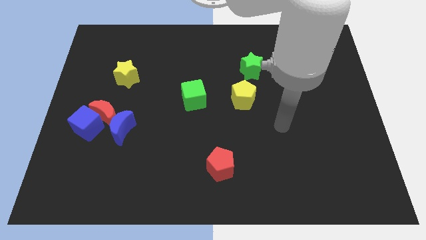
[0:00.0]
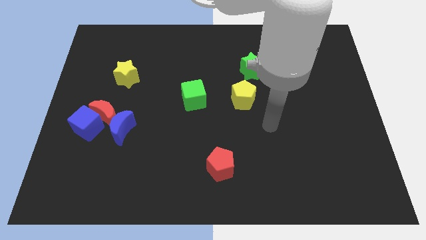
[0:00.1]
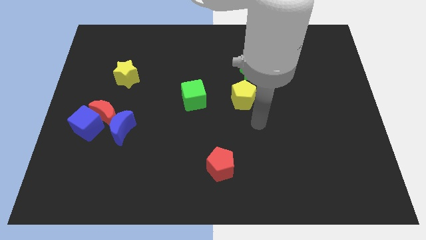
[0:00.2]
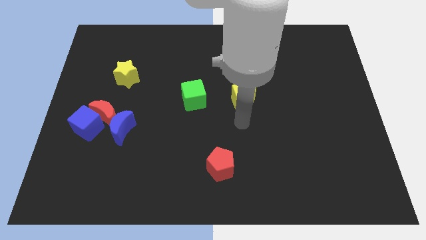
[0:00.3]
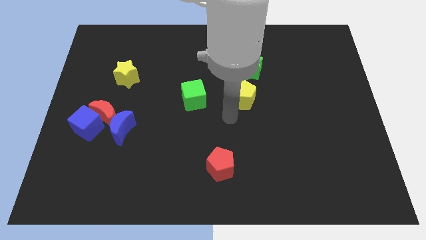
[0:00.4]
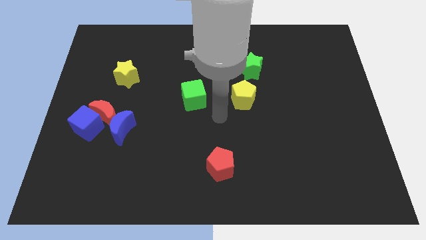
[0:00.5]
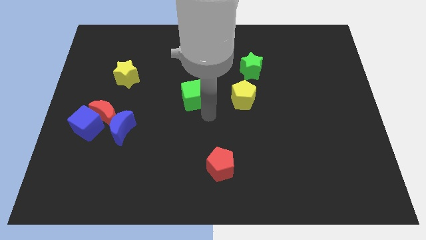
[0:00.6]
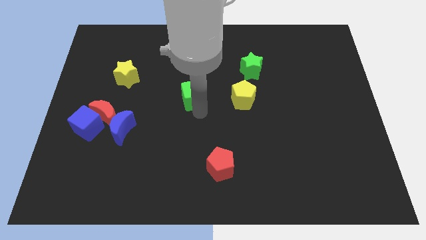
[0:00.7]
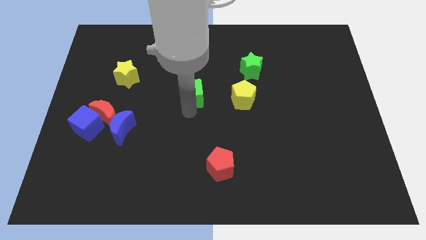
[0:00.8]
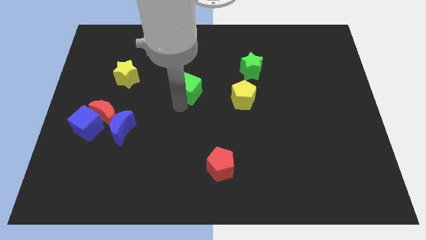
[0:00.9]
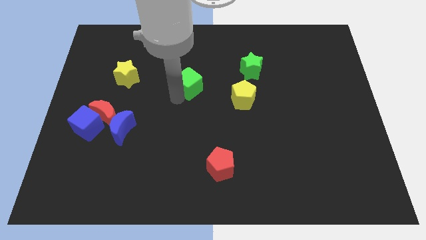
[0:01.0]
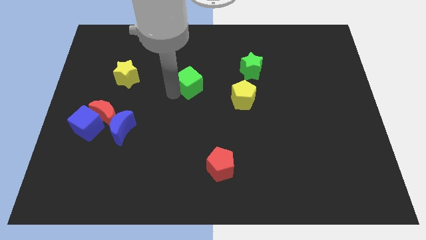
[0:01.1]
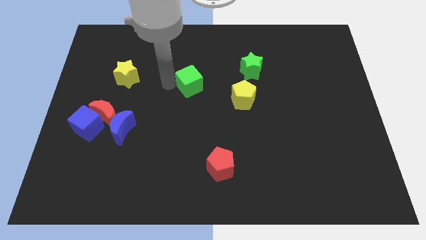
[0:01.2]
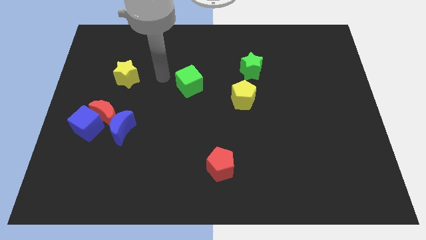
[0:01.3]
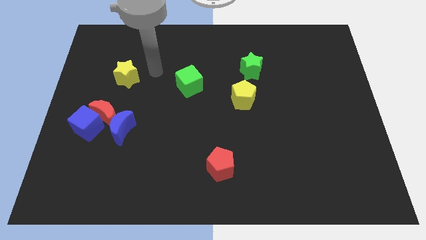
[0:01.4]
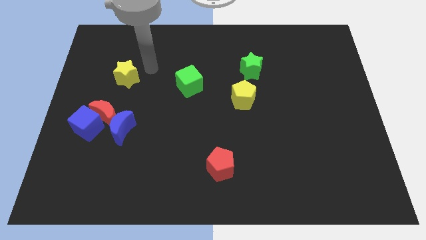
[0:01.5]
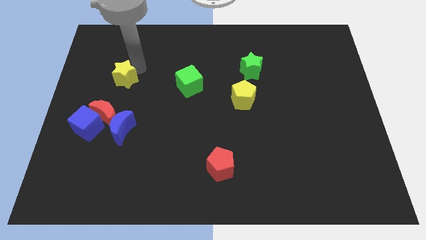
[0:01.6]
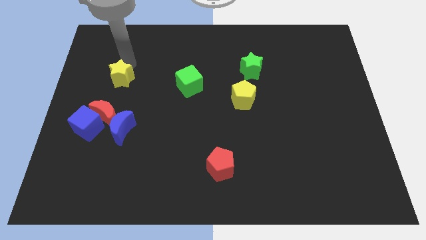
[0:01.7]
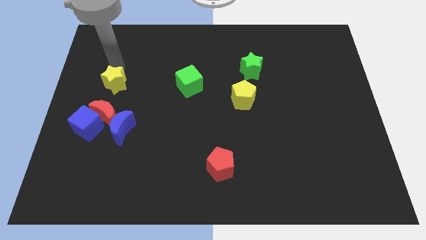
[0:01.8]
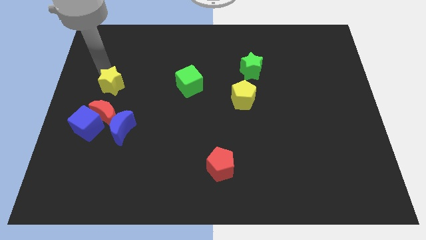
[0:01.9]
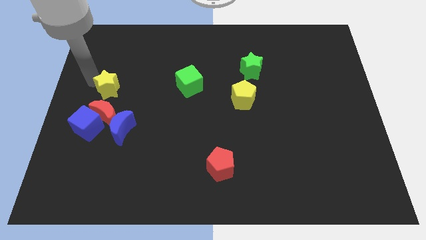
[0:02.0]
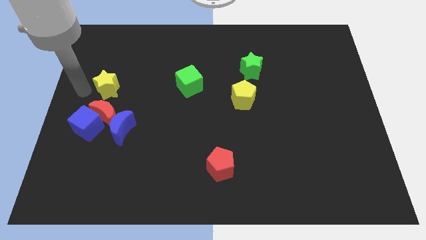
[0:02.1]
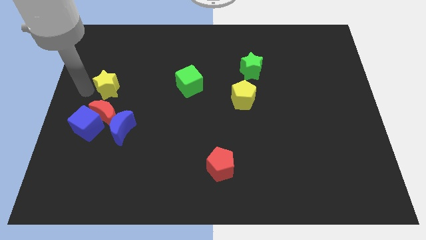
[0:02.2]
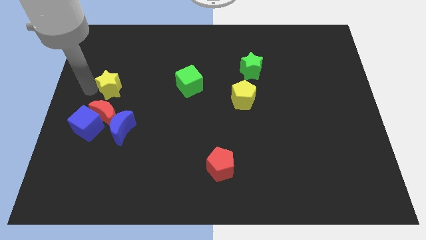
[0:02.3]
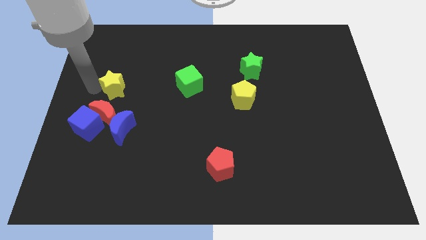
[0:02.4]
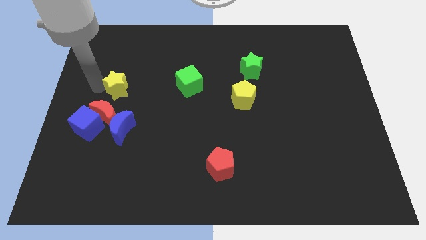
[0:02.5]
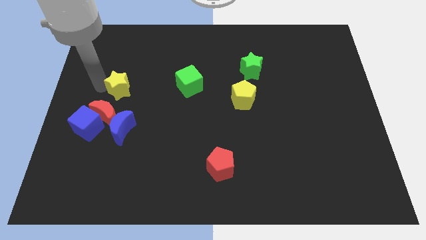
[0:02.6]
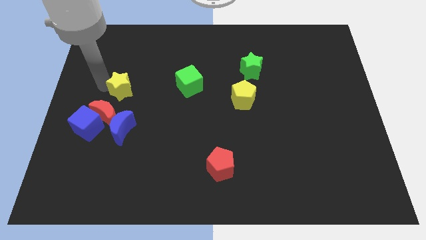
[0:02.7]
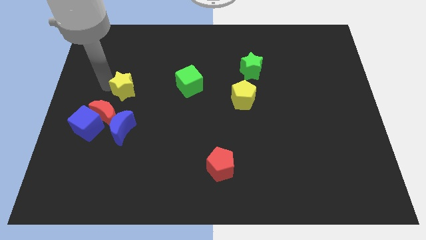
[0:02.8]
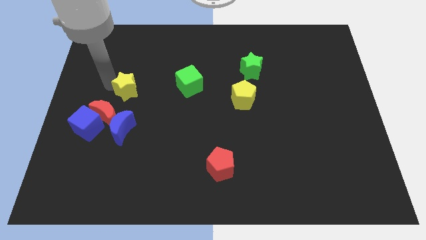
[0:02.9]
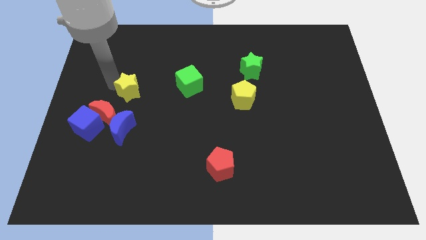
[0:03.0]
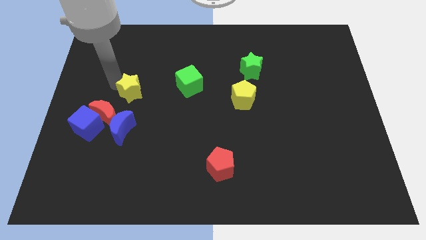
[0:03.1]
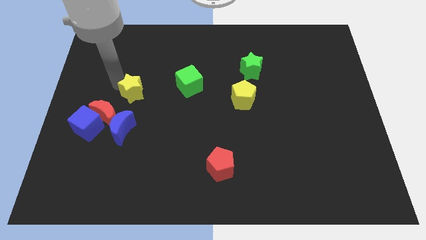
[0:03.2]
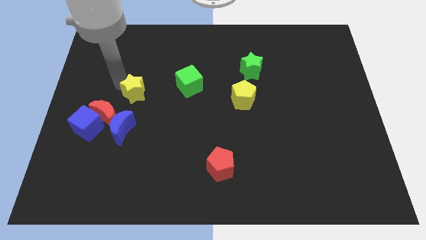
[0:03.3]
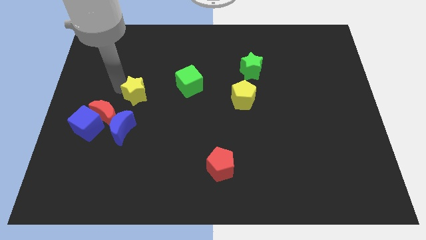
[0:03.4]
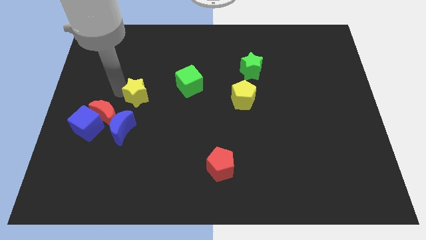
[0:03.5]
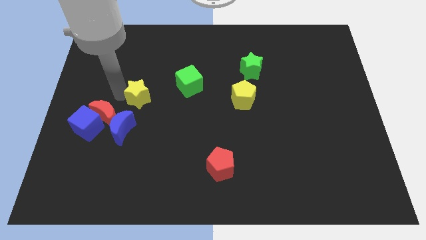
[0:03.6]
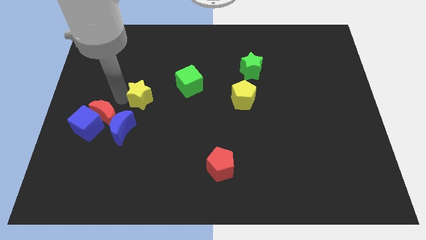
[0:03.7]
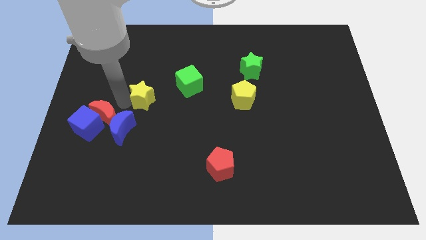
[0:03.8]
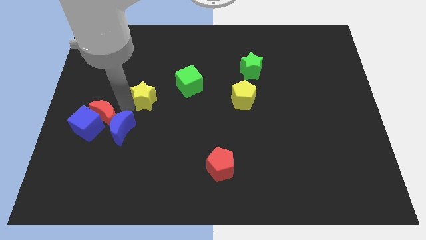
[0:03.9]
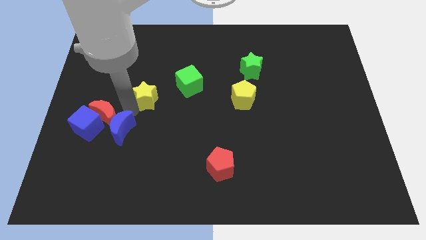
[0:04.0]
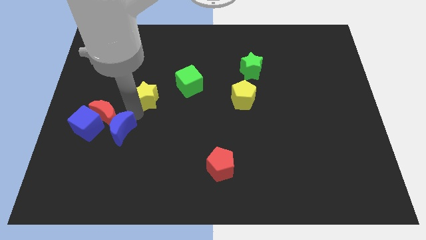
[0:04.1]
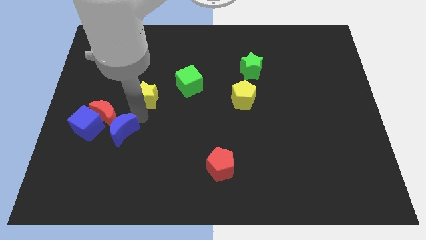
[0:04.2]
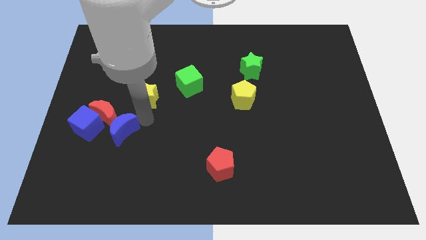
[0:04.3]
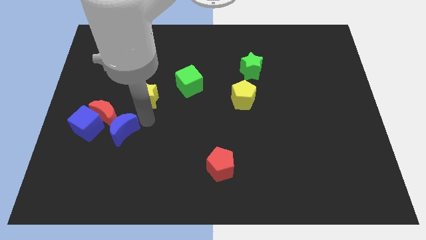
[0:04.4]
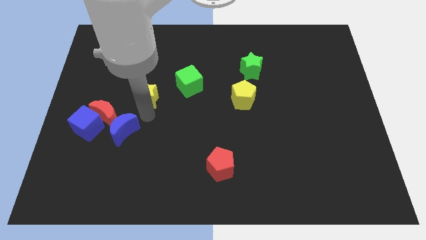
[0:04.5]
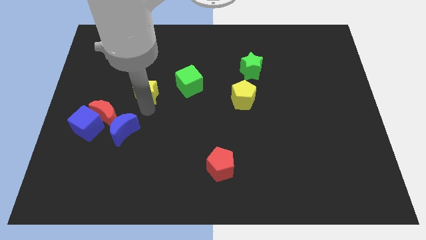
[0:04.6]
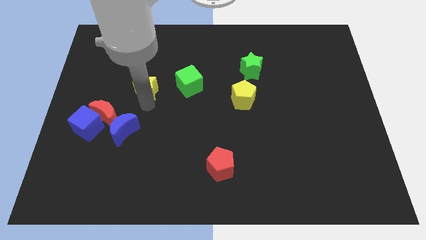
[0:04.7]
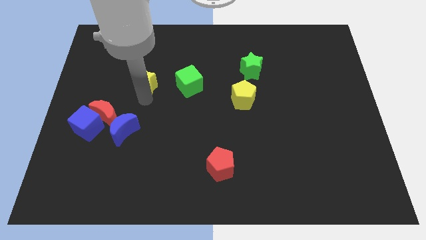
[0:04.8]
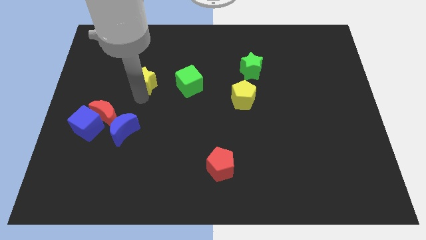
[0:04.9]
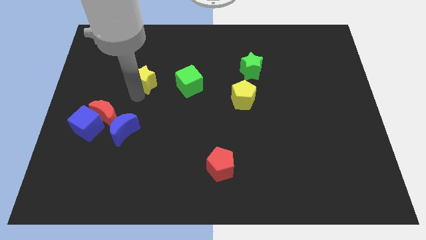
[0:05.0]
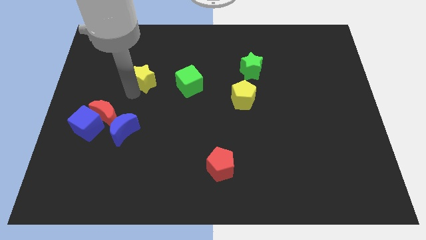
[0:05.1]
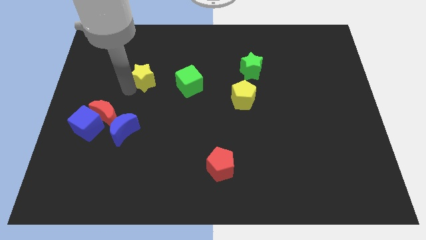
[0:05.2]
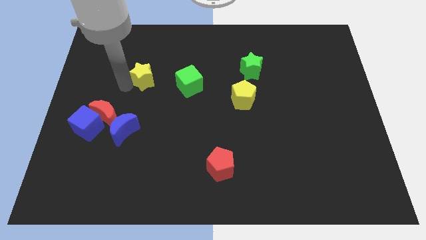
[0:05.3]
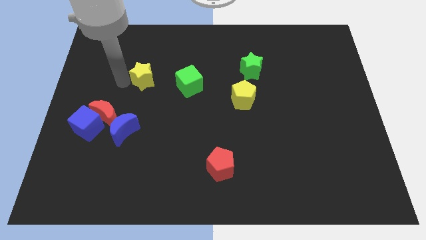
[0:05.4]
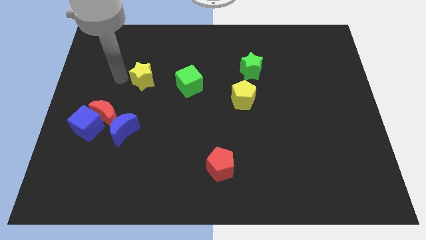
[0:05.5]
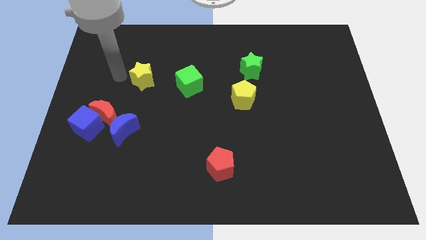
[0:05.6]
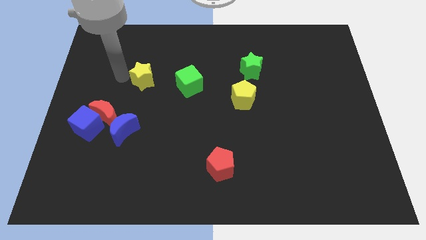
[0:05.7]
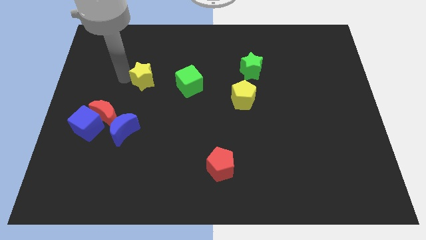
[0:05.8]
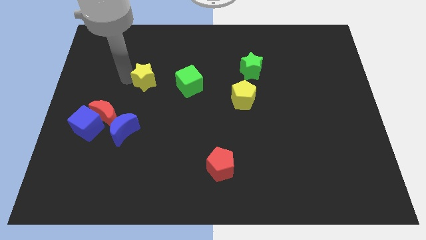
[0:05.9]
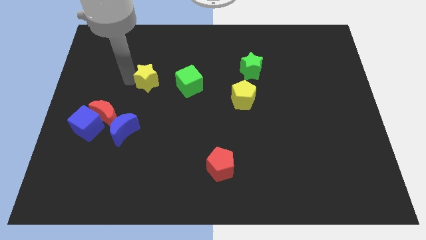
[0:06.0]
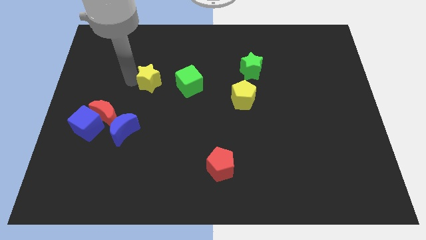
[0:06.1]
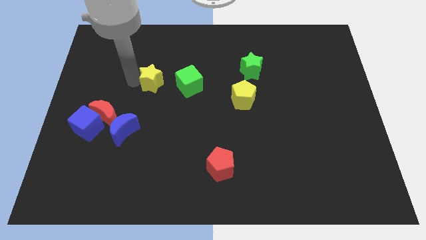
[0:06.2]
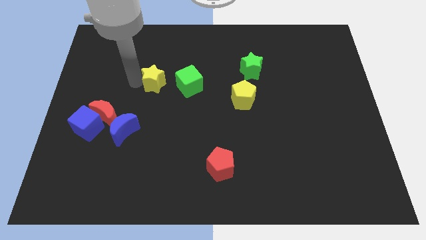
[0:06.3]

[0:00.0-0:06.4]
slightly slide the yellow star to the right

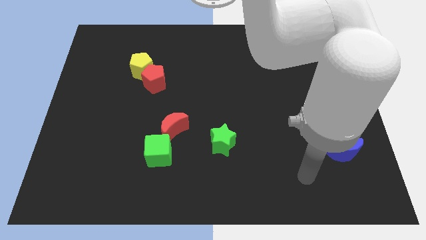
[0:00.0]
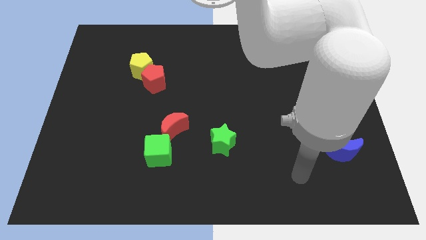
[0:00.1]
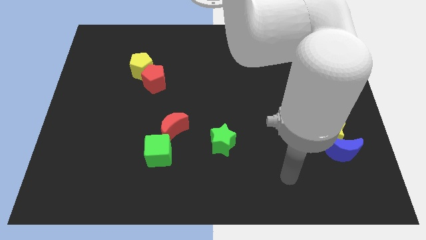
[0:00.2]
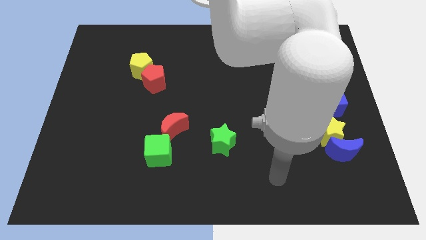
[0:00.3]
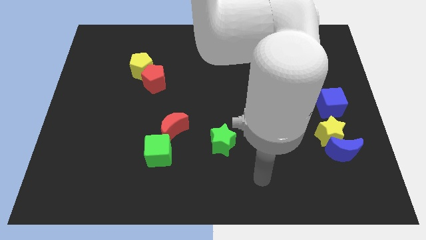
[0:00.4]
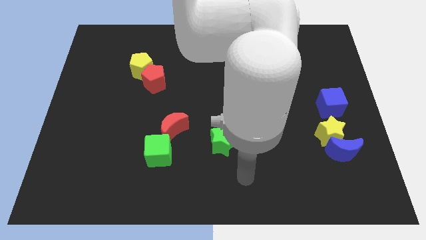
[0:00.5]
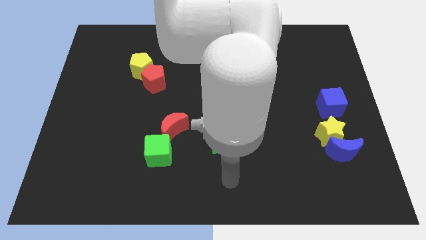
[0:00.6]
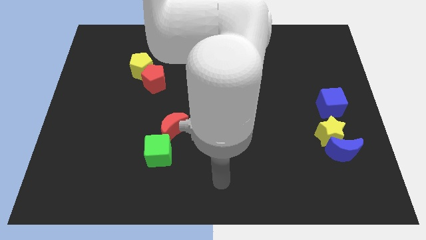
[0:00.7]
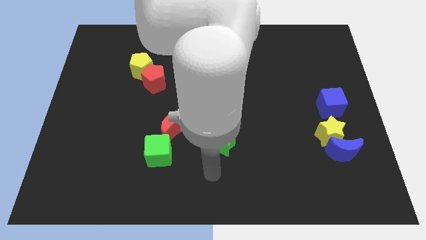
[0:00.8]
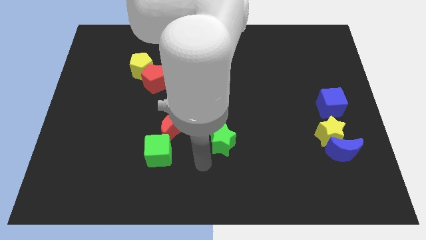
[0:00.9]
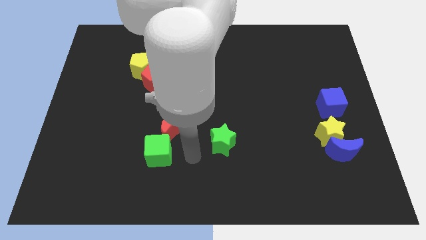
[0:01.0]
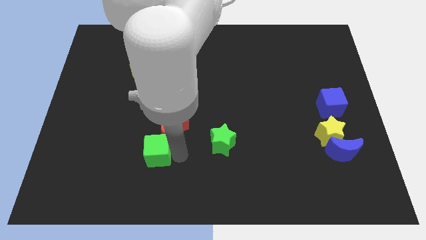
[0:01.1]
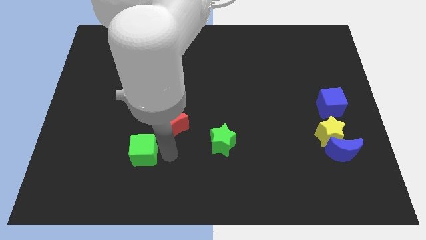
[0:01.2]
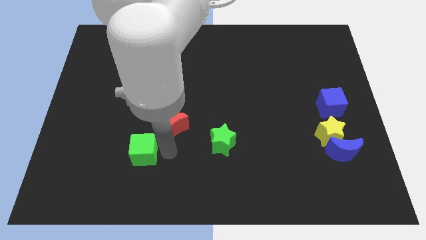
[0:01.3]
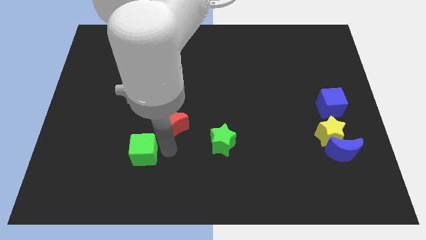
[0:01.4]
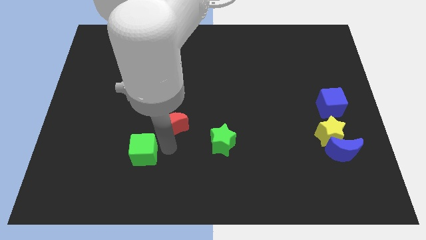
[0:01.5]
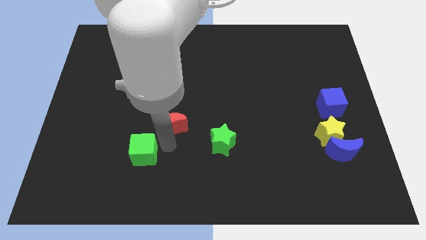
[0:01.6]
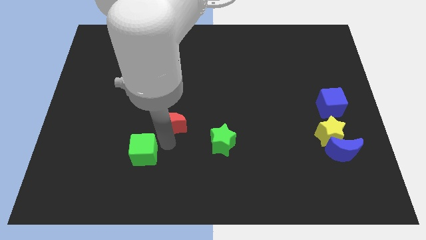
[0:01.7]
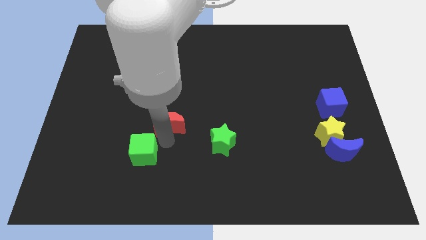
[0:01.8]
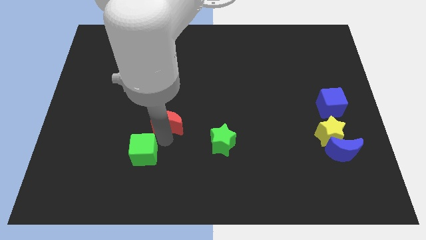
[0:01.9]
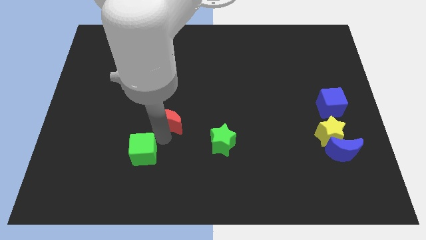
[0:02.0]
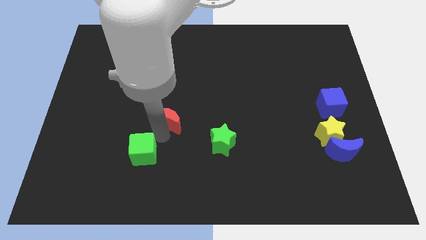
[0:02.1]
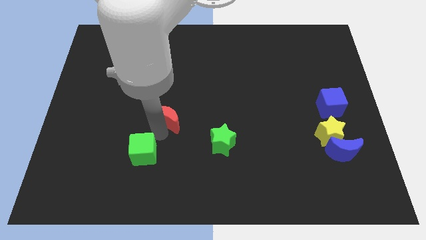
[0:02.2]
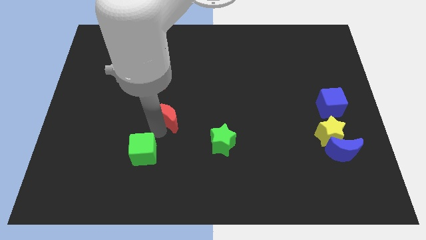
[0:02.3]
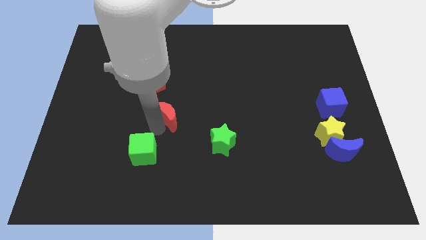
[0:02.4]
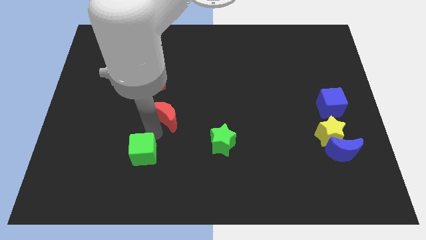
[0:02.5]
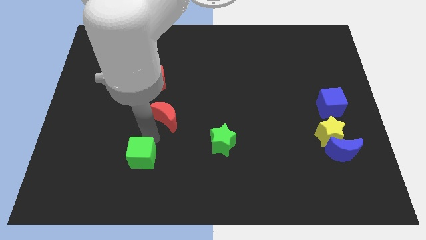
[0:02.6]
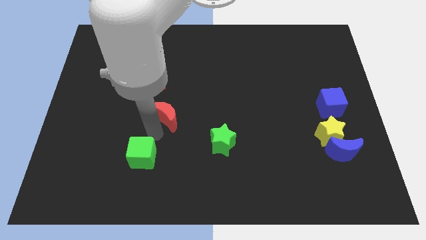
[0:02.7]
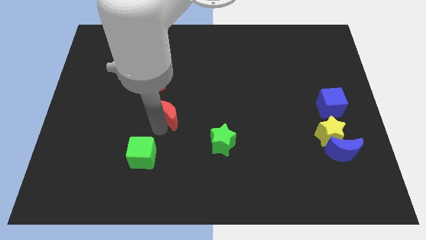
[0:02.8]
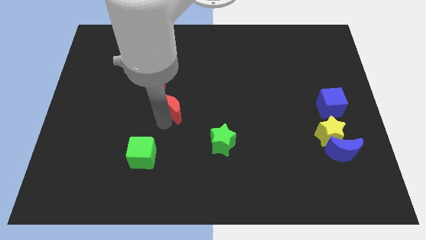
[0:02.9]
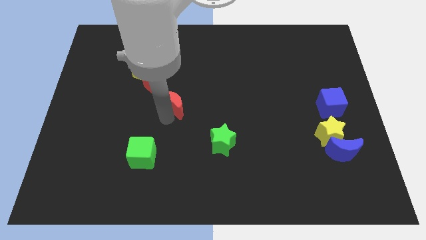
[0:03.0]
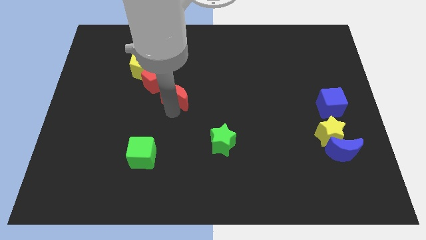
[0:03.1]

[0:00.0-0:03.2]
slide the red moon up a bit
